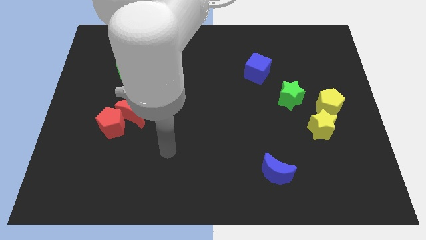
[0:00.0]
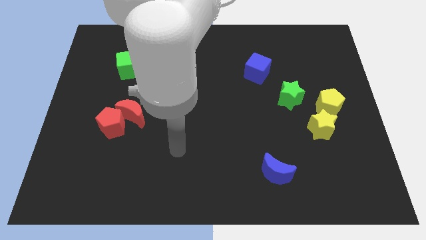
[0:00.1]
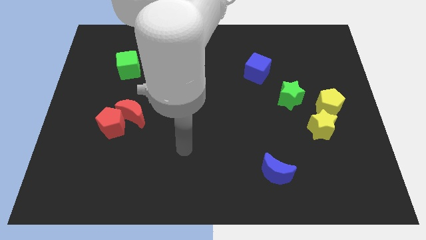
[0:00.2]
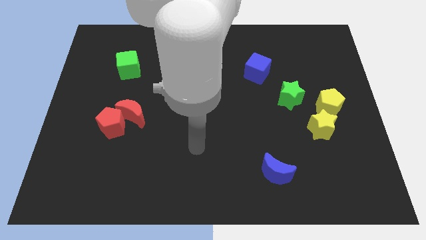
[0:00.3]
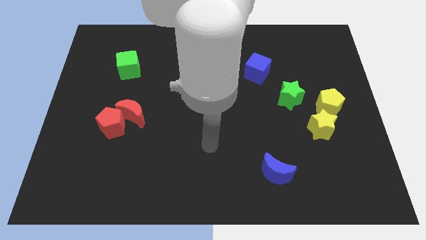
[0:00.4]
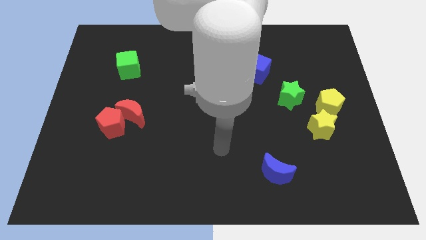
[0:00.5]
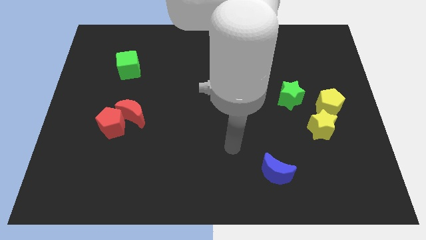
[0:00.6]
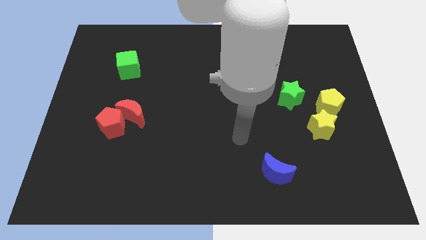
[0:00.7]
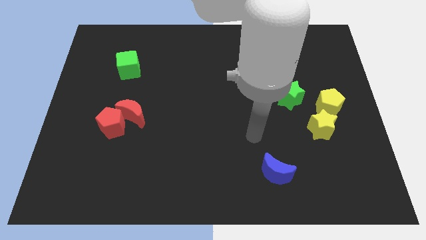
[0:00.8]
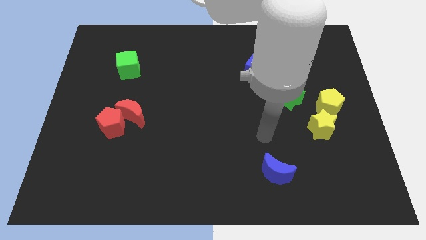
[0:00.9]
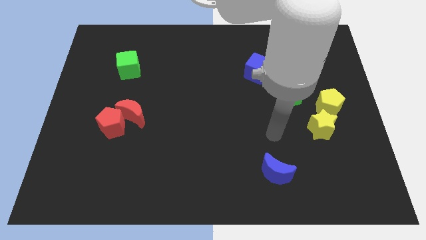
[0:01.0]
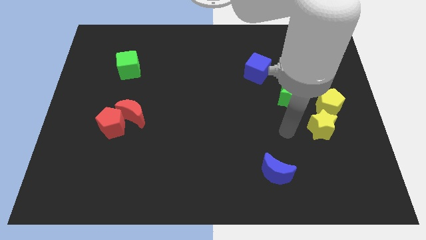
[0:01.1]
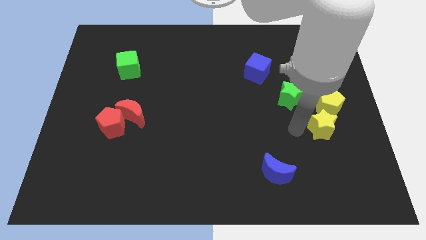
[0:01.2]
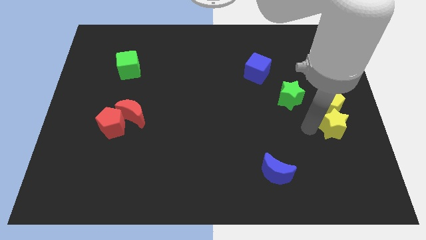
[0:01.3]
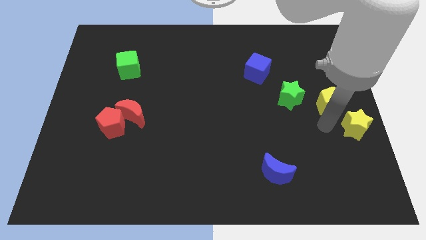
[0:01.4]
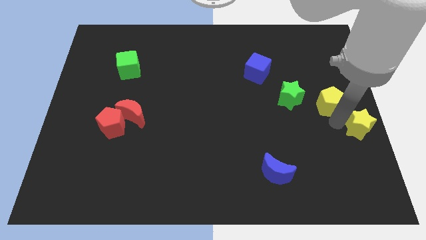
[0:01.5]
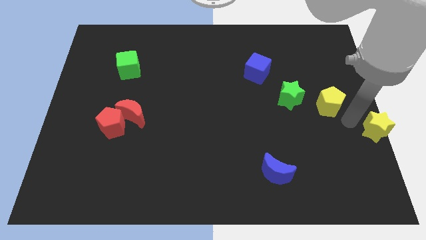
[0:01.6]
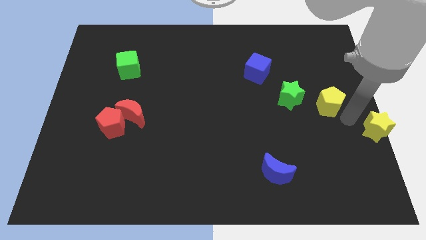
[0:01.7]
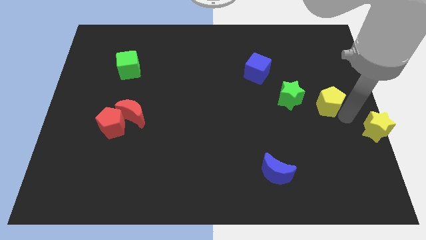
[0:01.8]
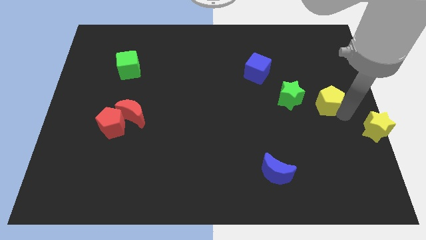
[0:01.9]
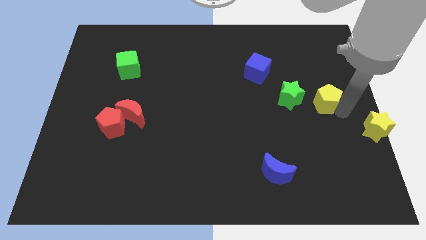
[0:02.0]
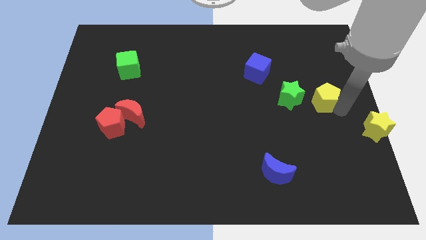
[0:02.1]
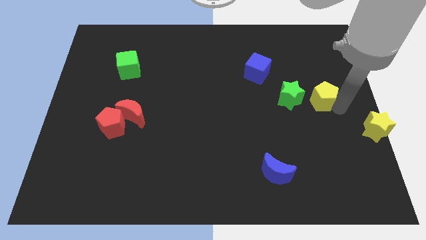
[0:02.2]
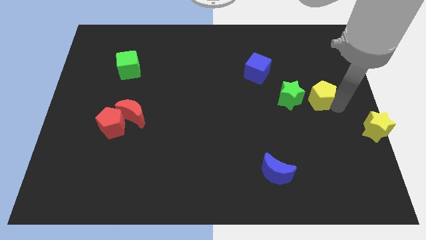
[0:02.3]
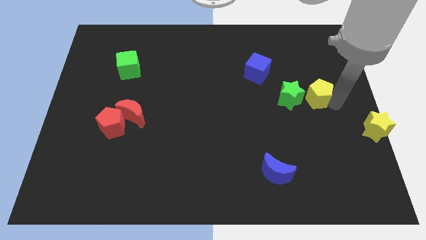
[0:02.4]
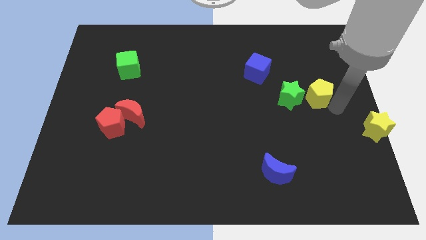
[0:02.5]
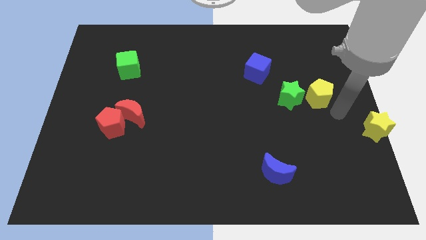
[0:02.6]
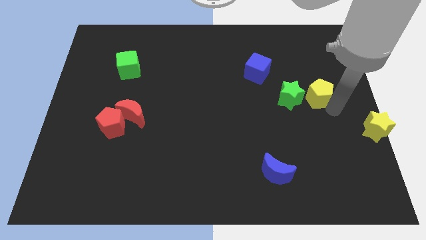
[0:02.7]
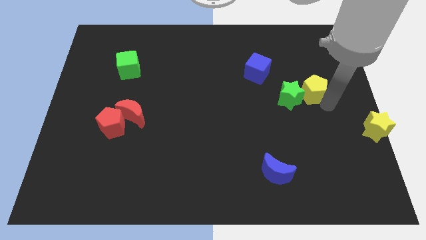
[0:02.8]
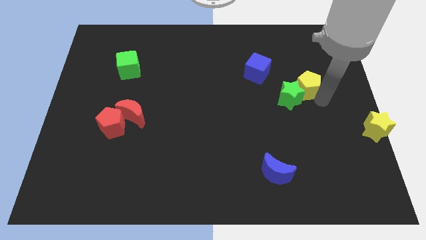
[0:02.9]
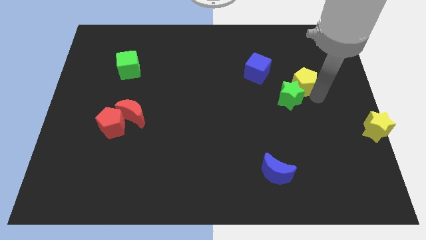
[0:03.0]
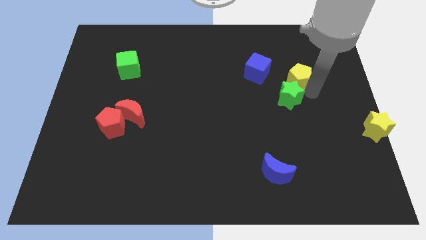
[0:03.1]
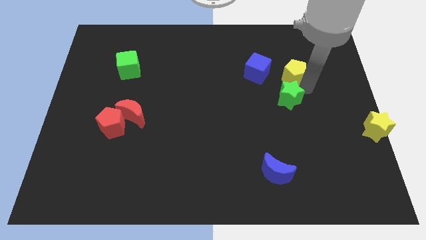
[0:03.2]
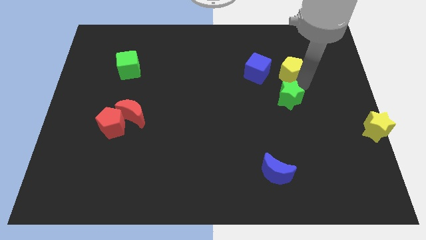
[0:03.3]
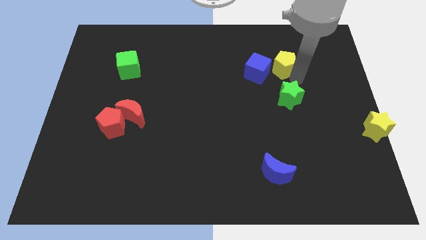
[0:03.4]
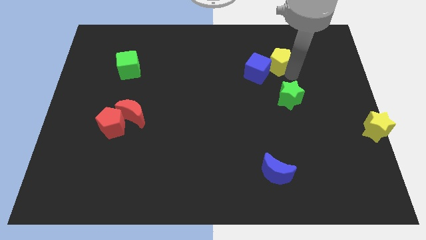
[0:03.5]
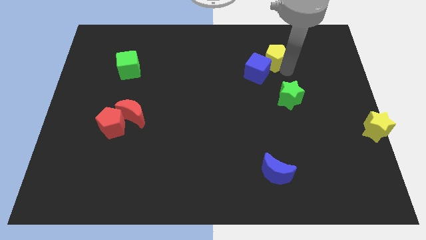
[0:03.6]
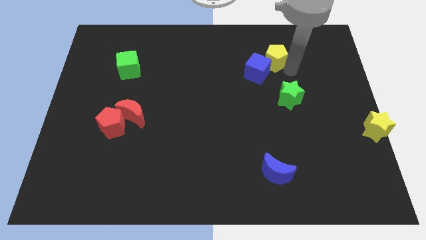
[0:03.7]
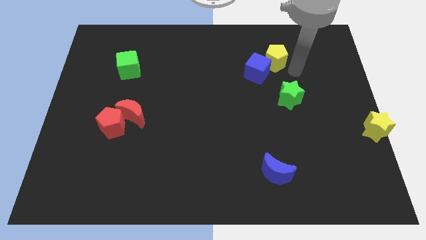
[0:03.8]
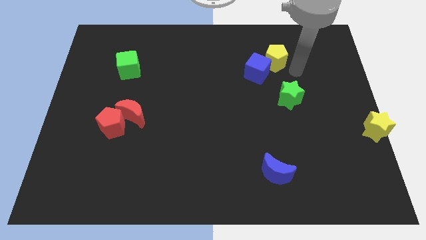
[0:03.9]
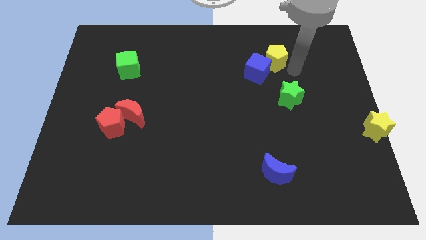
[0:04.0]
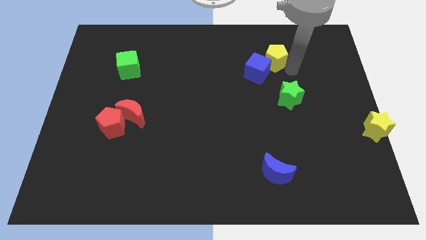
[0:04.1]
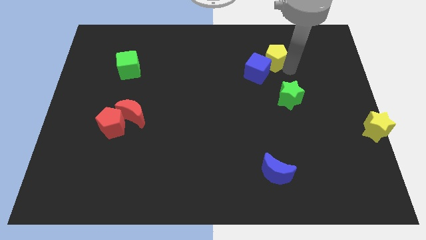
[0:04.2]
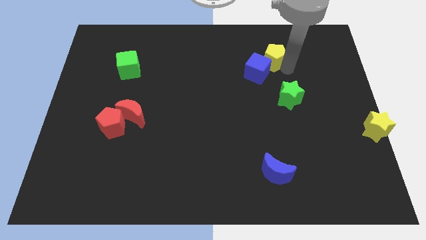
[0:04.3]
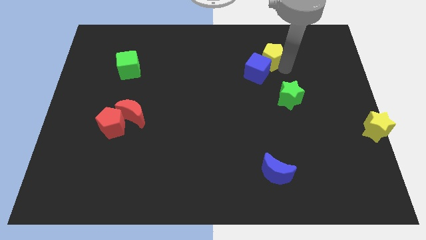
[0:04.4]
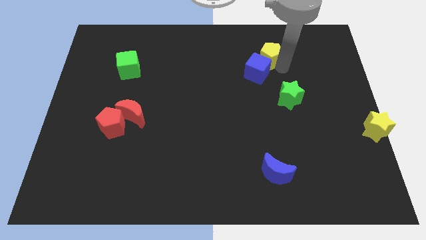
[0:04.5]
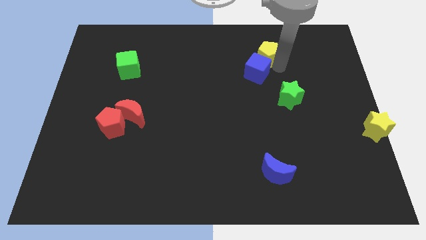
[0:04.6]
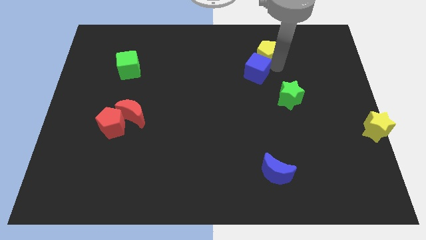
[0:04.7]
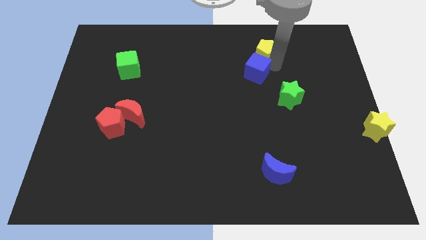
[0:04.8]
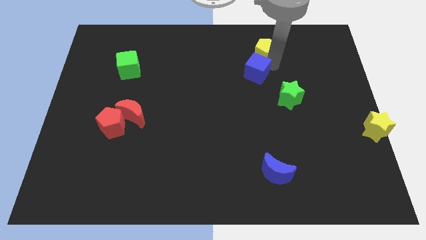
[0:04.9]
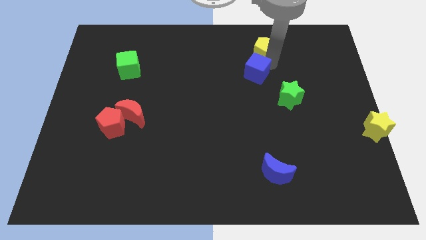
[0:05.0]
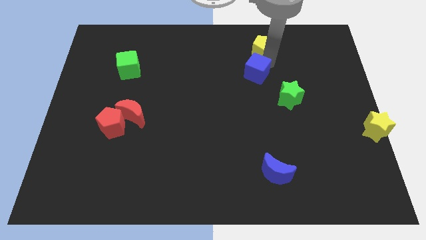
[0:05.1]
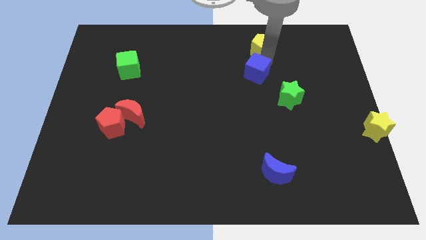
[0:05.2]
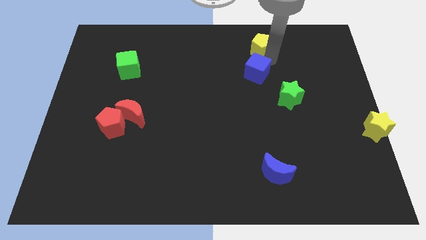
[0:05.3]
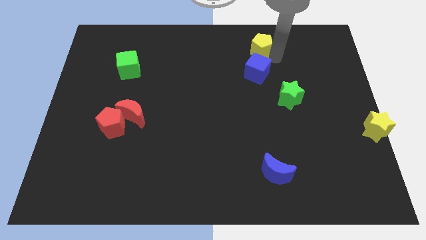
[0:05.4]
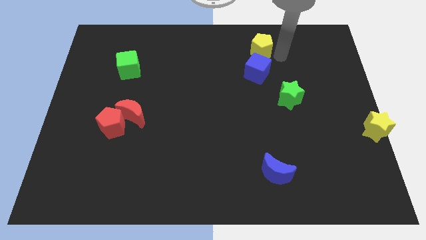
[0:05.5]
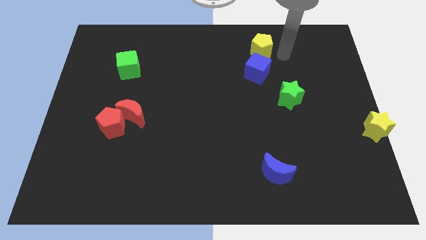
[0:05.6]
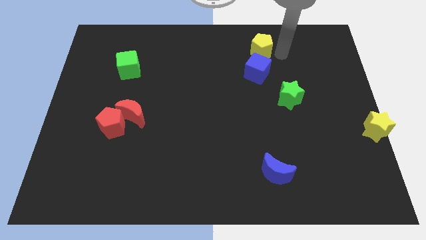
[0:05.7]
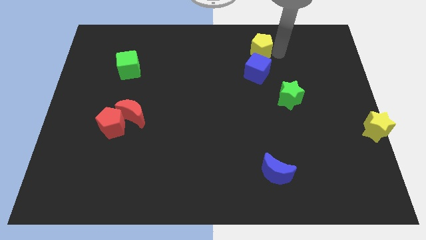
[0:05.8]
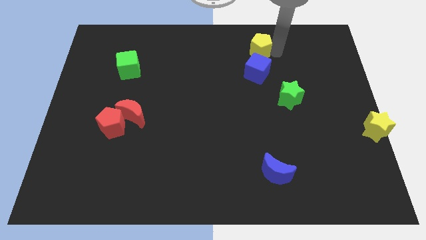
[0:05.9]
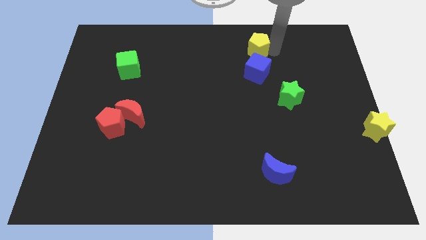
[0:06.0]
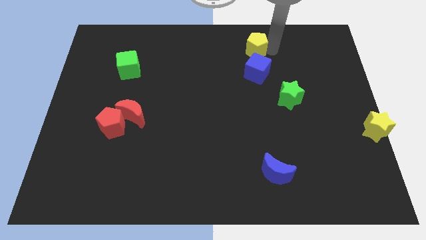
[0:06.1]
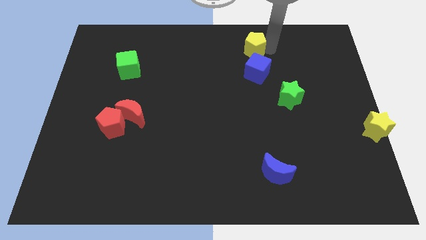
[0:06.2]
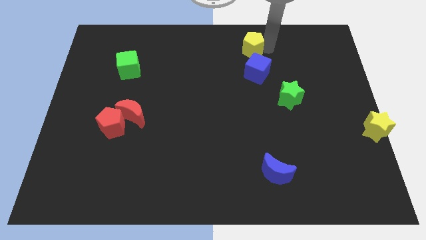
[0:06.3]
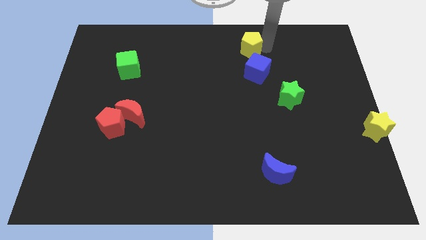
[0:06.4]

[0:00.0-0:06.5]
slide the yellow pentagon to the top side

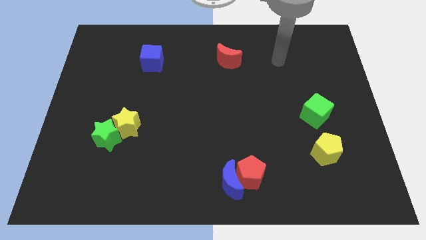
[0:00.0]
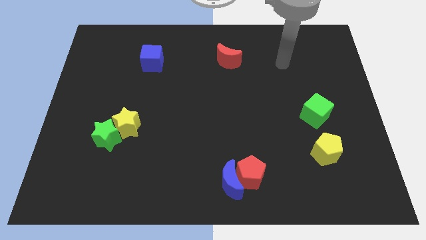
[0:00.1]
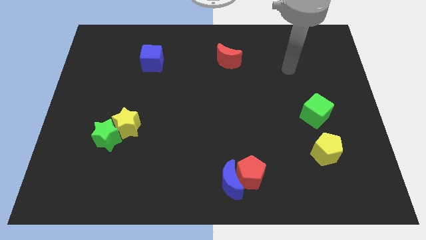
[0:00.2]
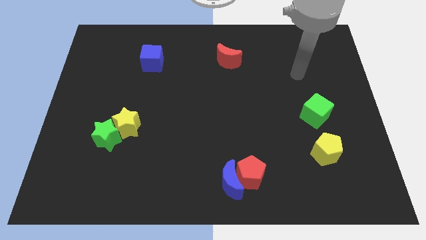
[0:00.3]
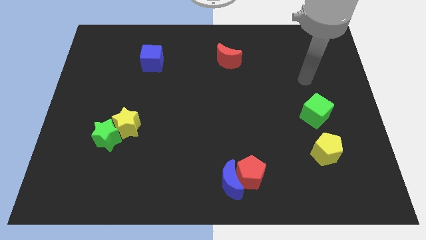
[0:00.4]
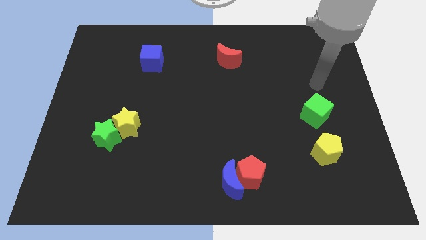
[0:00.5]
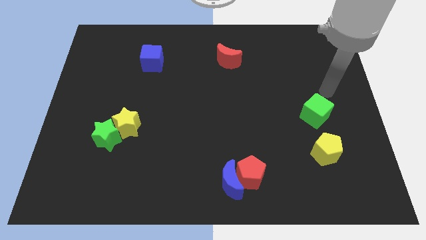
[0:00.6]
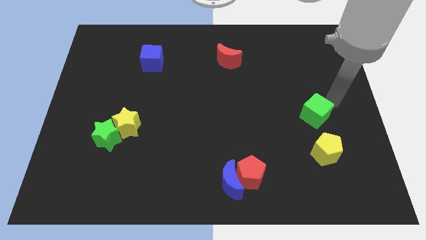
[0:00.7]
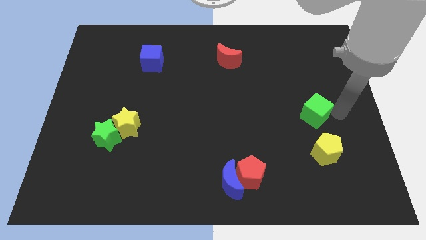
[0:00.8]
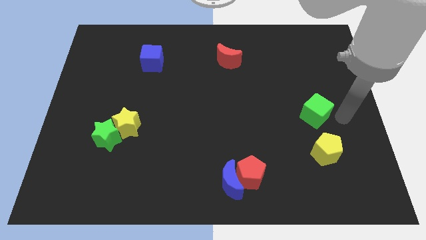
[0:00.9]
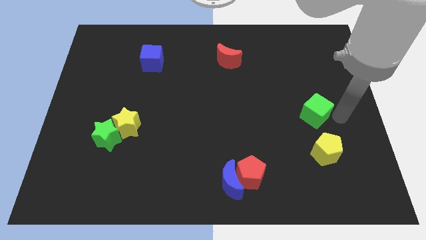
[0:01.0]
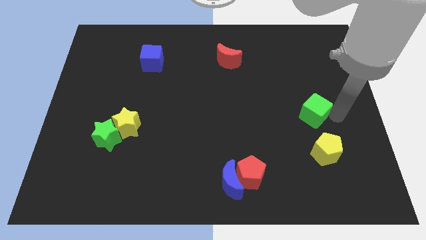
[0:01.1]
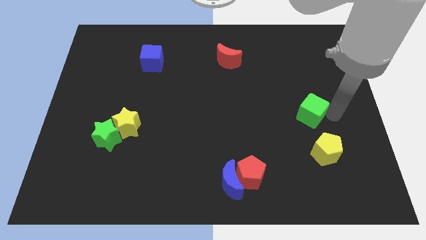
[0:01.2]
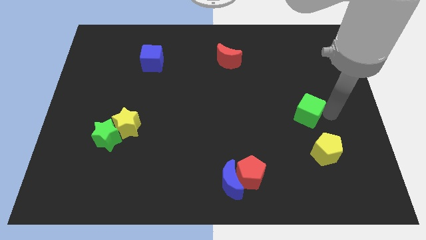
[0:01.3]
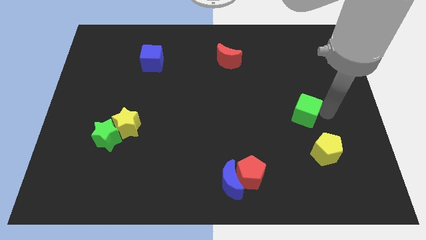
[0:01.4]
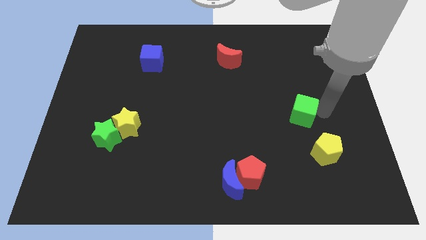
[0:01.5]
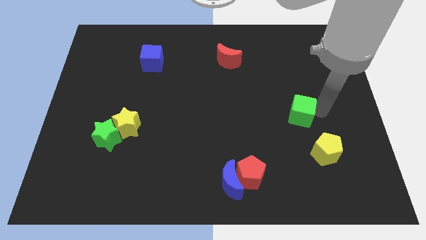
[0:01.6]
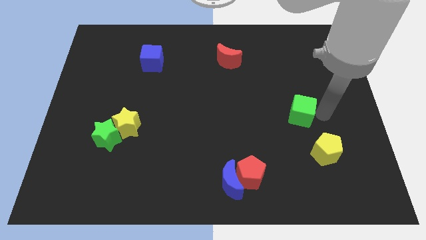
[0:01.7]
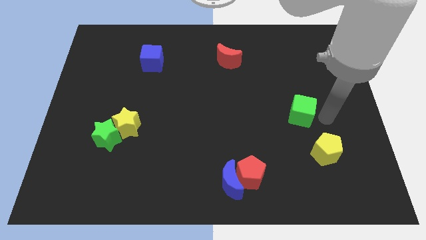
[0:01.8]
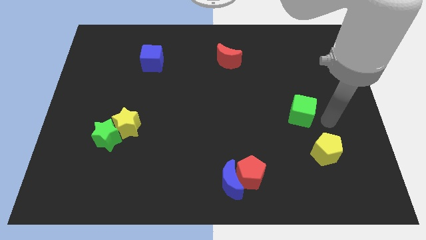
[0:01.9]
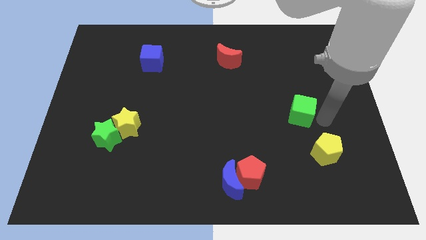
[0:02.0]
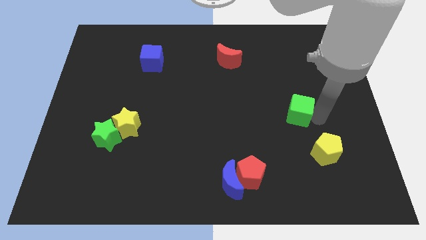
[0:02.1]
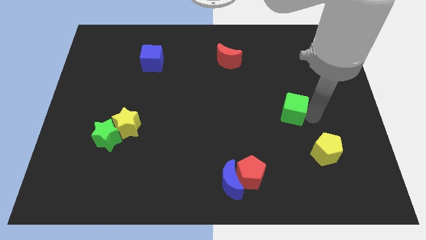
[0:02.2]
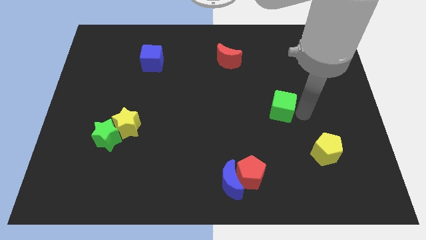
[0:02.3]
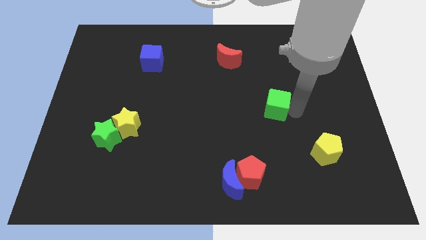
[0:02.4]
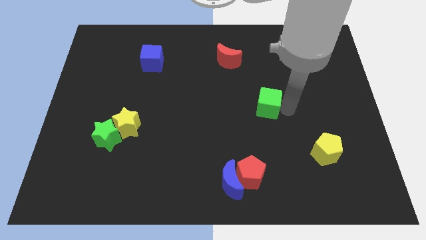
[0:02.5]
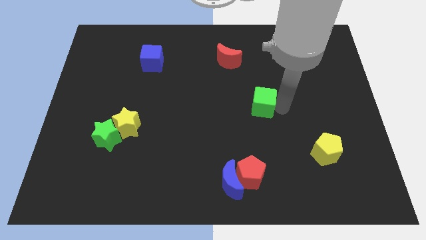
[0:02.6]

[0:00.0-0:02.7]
slide the green cube to the middle of the board
